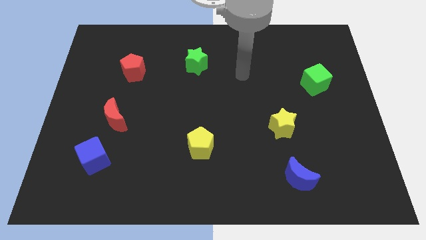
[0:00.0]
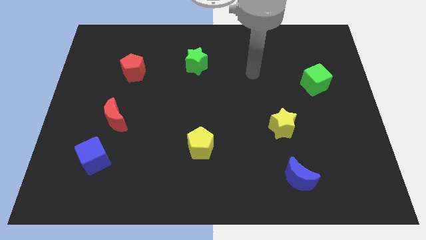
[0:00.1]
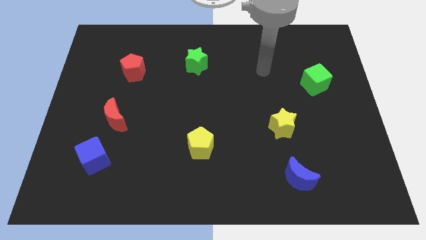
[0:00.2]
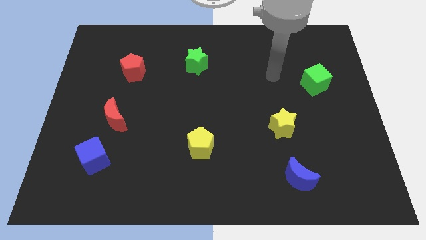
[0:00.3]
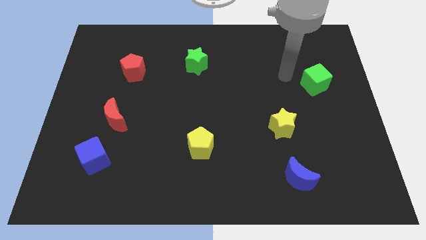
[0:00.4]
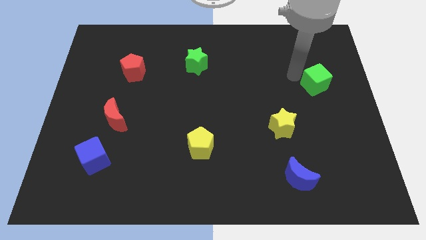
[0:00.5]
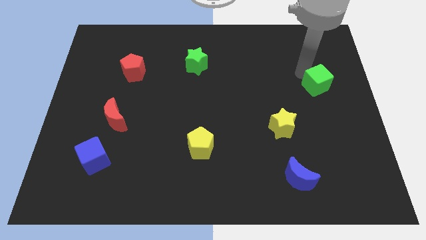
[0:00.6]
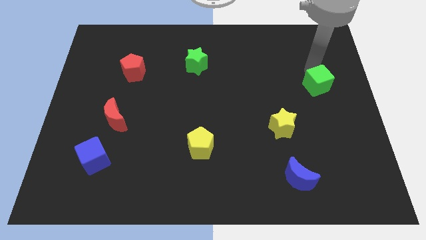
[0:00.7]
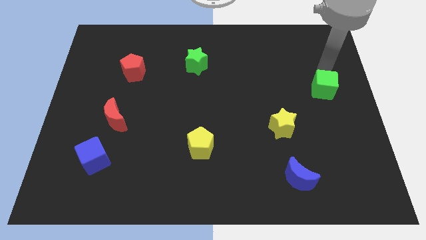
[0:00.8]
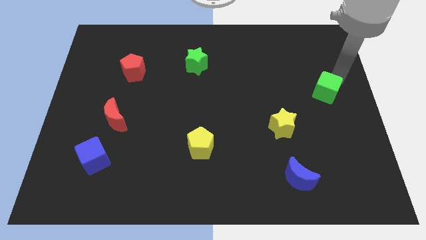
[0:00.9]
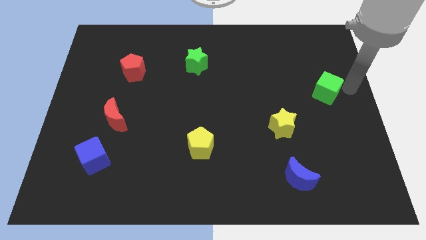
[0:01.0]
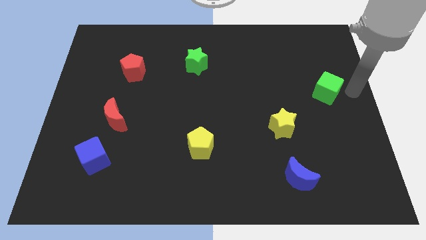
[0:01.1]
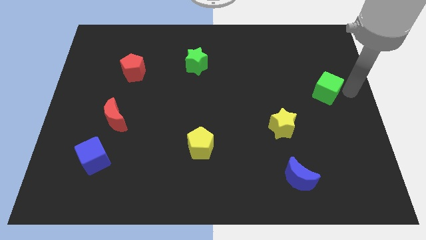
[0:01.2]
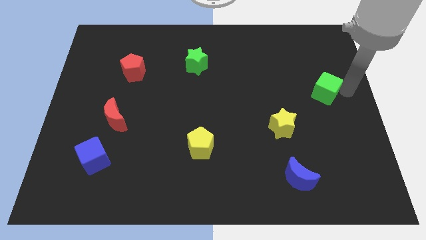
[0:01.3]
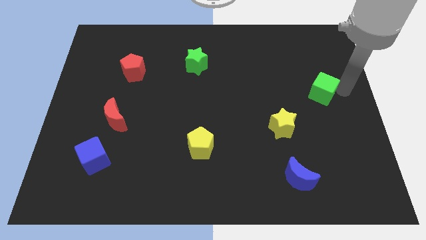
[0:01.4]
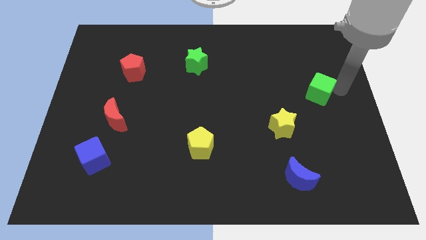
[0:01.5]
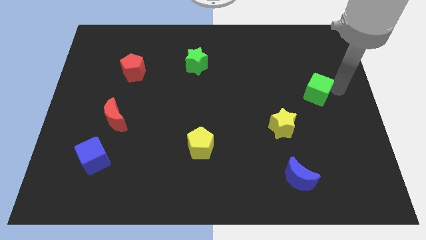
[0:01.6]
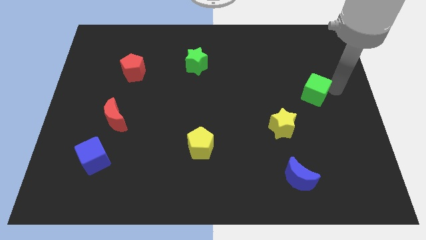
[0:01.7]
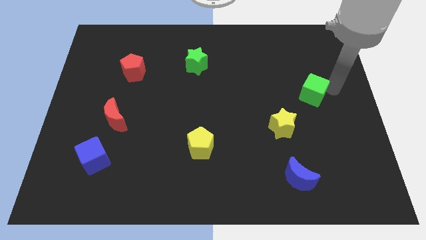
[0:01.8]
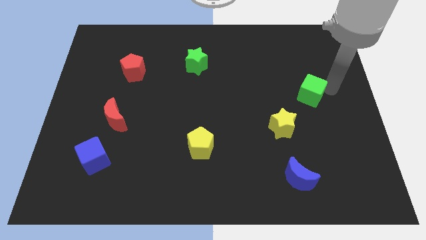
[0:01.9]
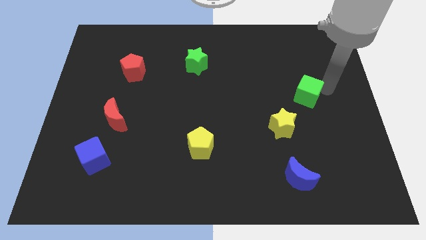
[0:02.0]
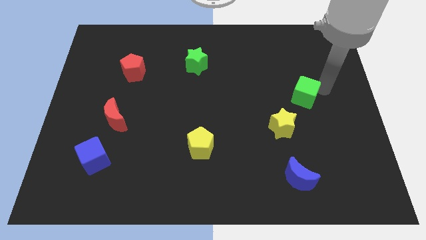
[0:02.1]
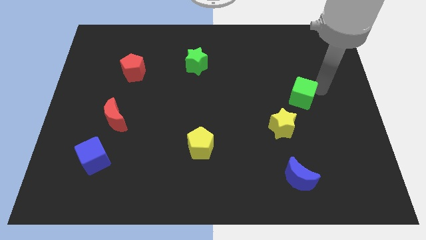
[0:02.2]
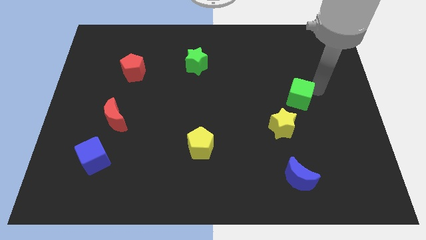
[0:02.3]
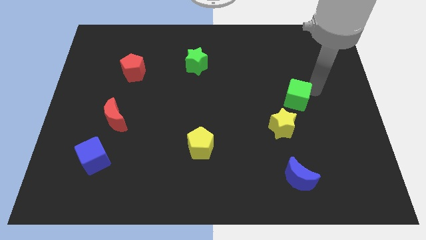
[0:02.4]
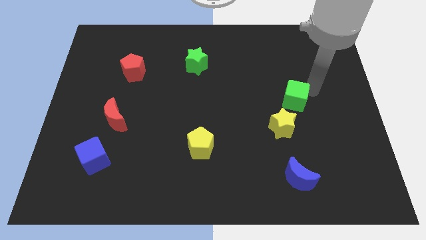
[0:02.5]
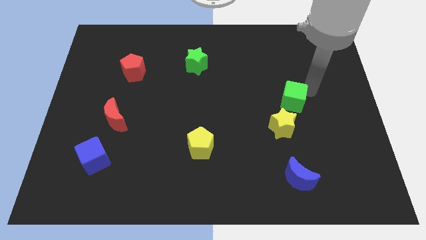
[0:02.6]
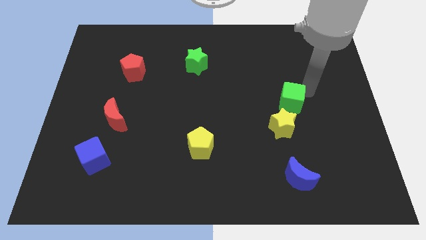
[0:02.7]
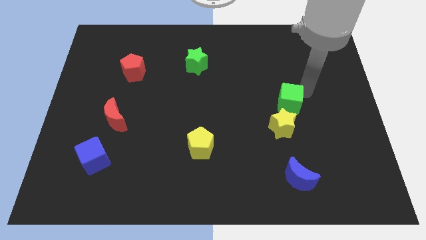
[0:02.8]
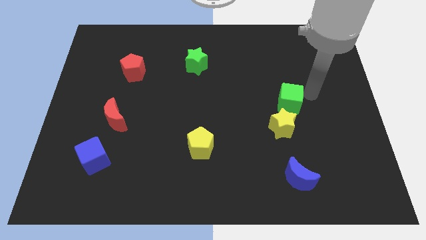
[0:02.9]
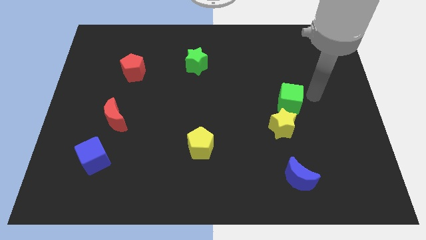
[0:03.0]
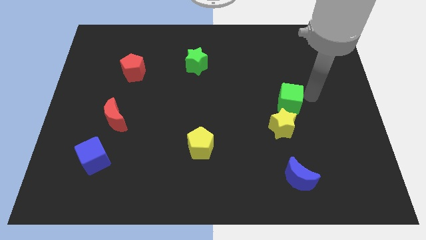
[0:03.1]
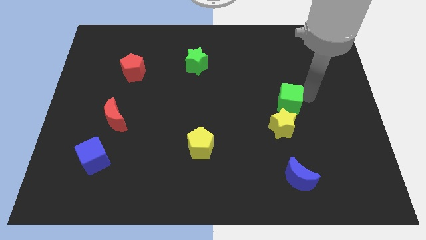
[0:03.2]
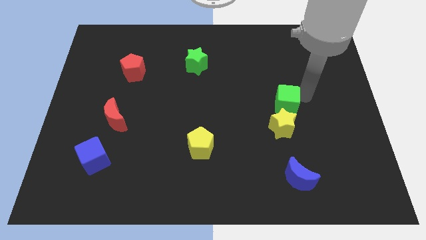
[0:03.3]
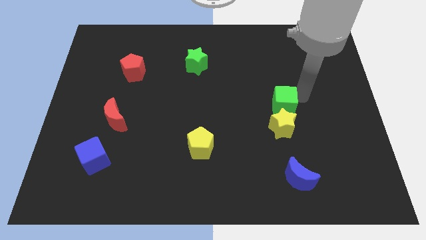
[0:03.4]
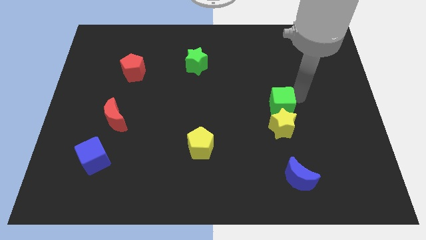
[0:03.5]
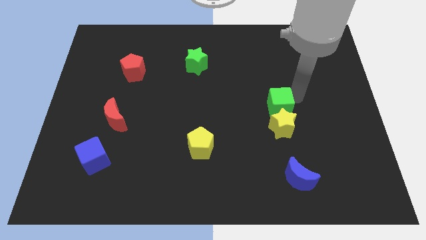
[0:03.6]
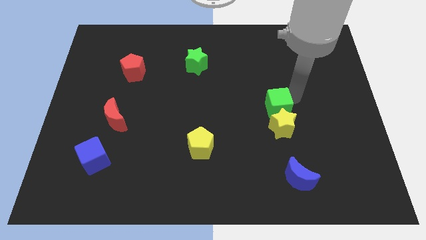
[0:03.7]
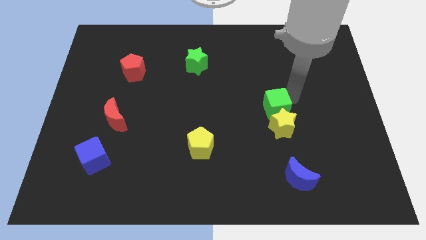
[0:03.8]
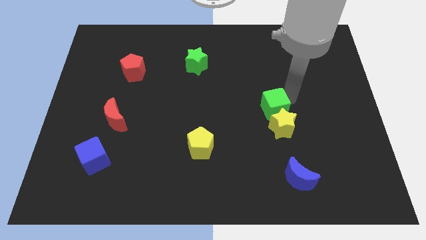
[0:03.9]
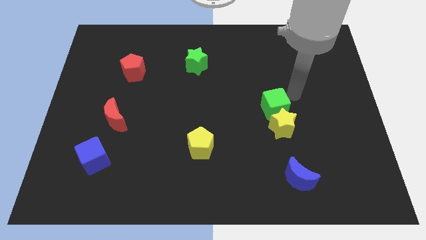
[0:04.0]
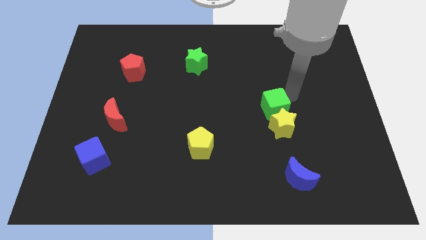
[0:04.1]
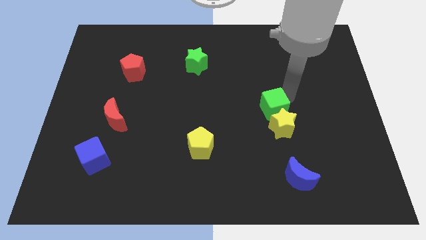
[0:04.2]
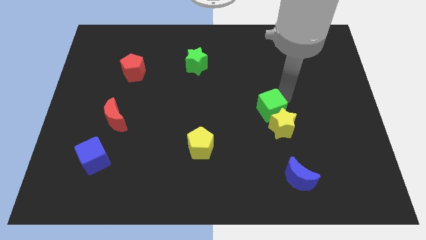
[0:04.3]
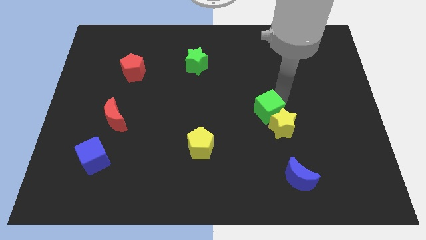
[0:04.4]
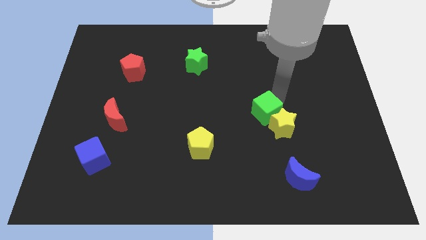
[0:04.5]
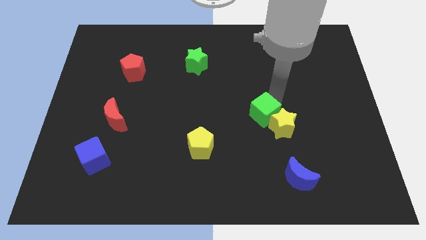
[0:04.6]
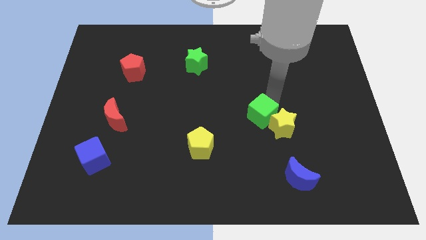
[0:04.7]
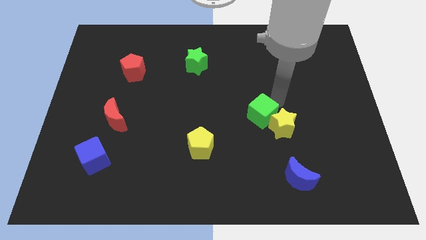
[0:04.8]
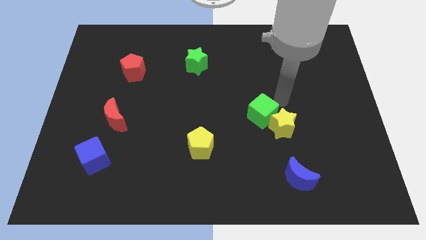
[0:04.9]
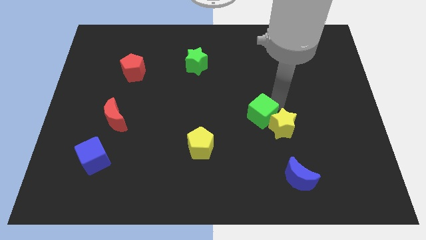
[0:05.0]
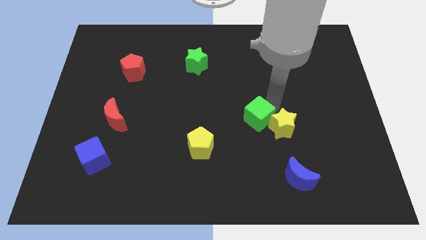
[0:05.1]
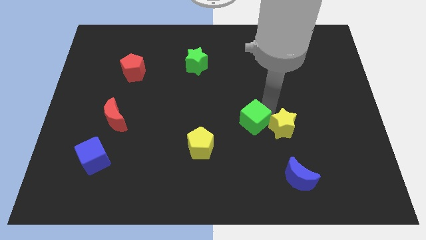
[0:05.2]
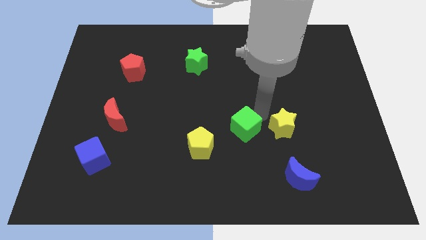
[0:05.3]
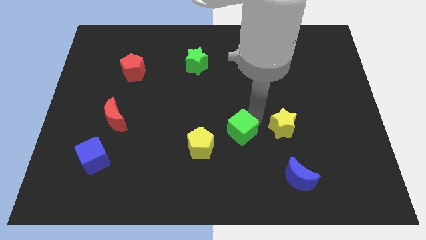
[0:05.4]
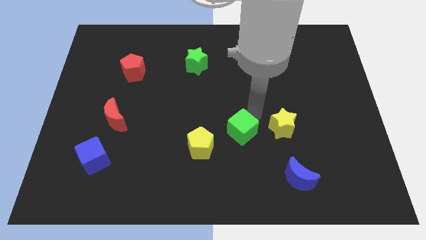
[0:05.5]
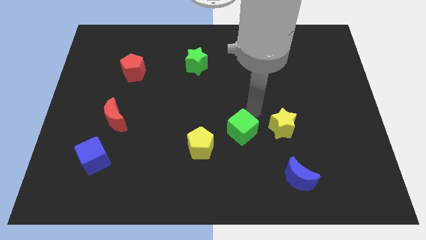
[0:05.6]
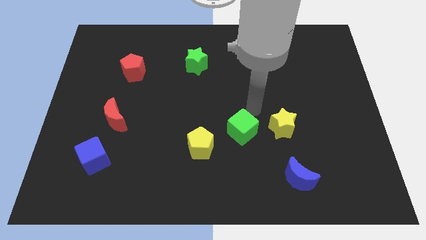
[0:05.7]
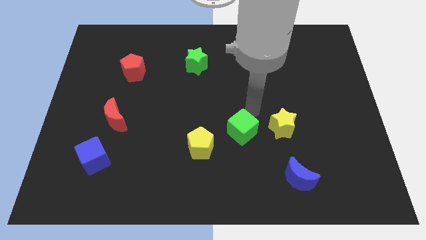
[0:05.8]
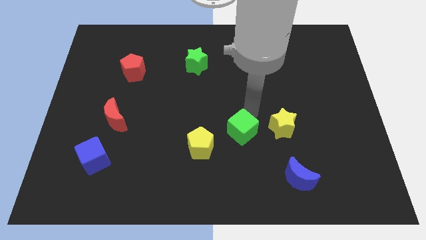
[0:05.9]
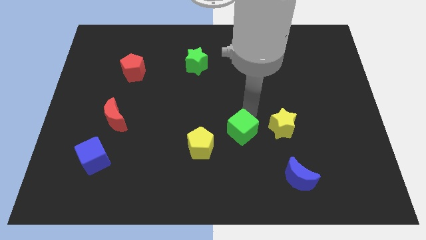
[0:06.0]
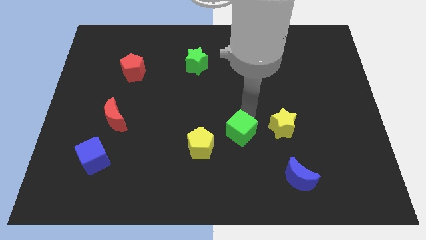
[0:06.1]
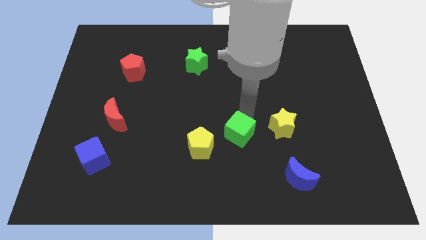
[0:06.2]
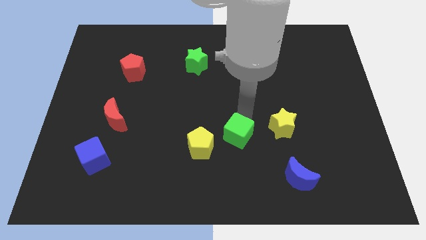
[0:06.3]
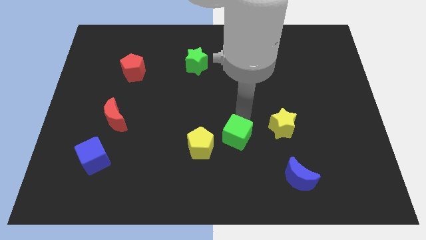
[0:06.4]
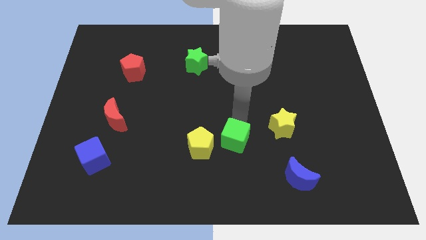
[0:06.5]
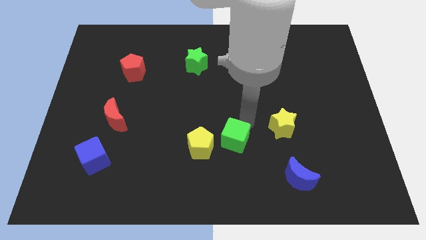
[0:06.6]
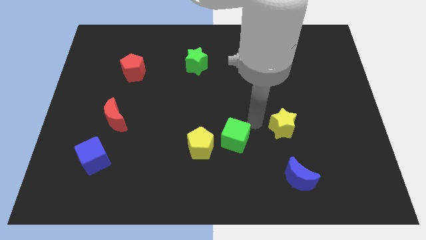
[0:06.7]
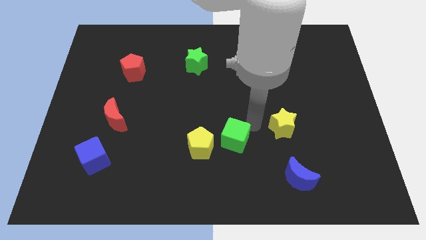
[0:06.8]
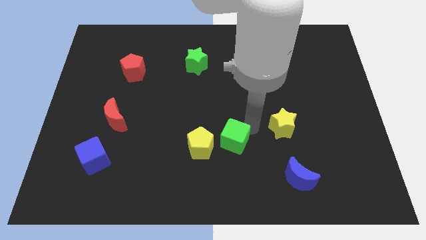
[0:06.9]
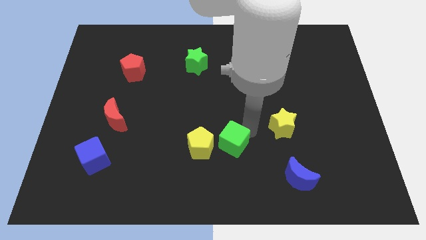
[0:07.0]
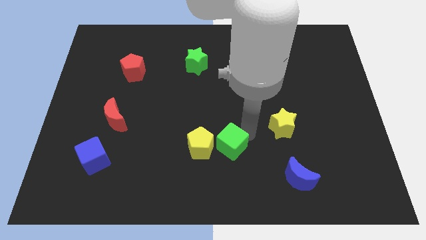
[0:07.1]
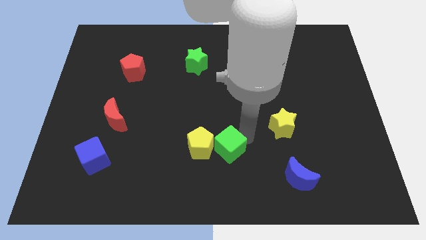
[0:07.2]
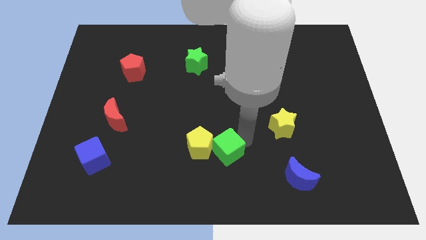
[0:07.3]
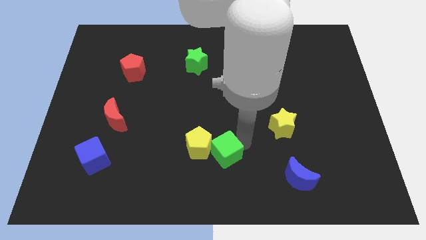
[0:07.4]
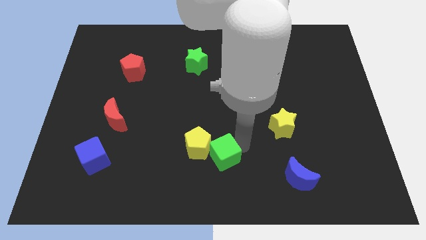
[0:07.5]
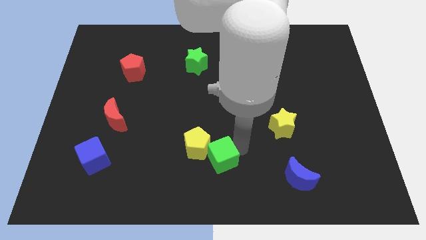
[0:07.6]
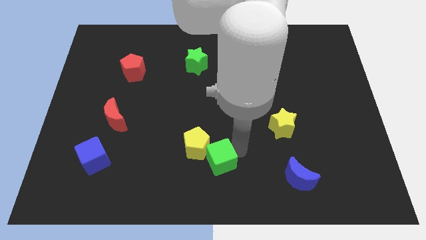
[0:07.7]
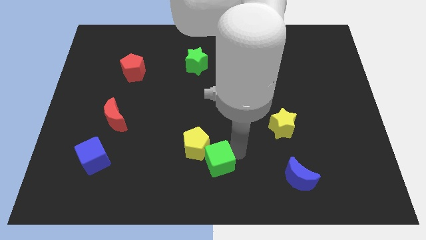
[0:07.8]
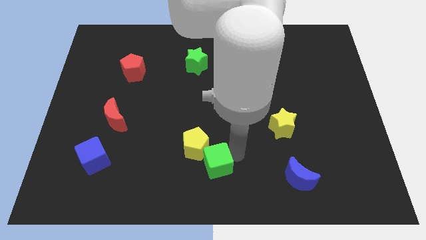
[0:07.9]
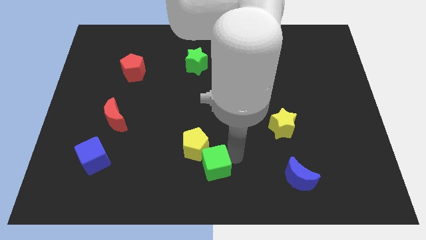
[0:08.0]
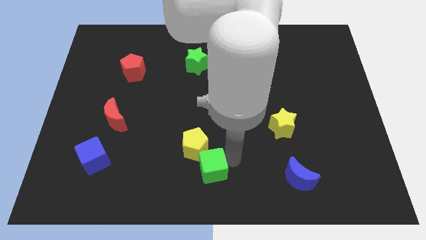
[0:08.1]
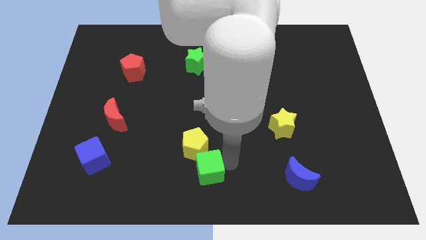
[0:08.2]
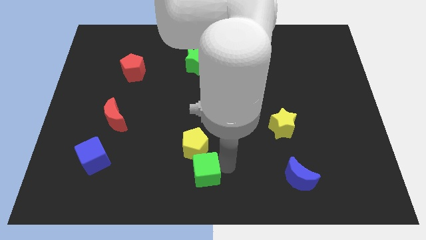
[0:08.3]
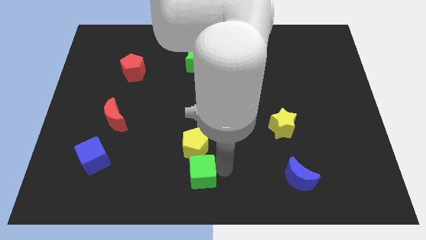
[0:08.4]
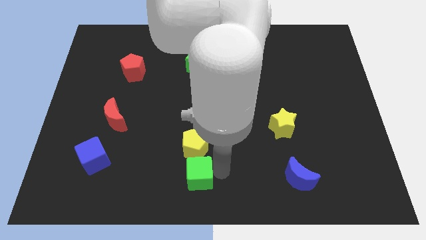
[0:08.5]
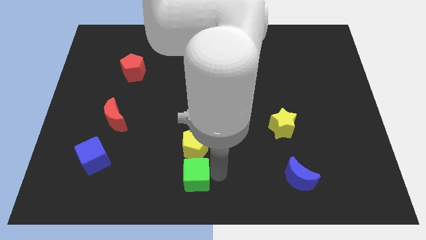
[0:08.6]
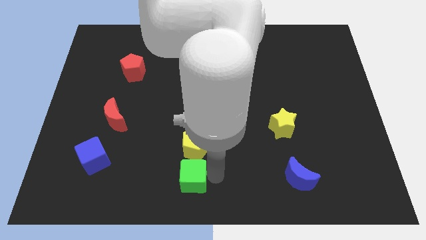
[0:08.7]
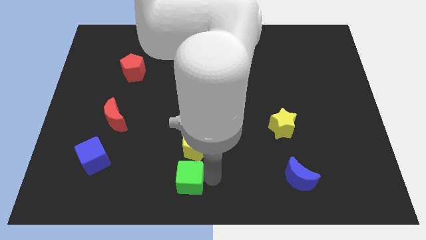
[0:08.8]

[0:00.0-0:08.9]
push the green cube diagonally down and to the left of the yellow pentagon
